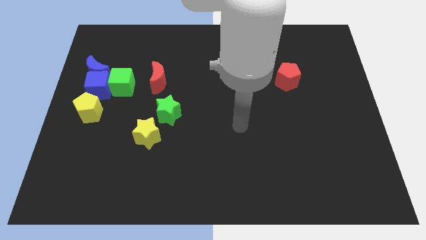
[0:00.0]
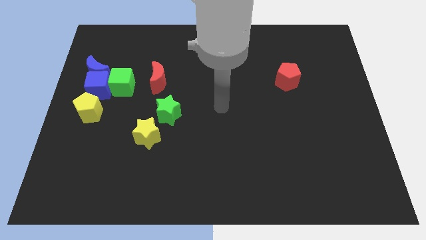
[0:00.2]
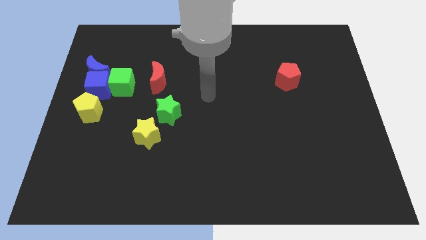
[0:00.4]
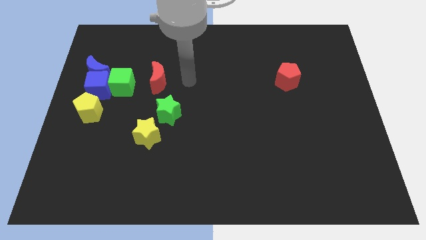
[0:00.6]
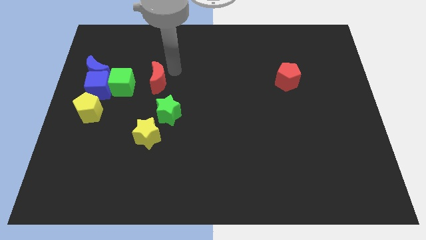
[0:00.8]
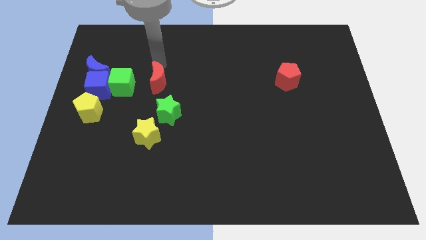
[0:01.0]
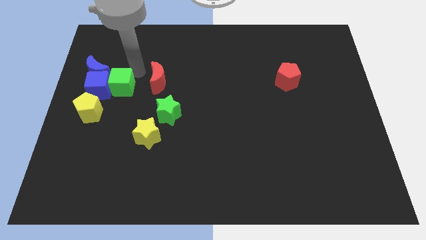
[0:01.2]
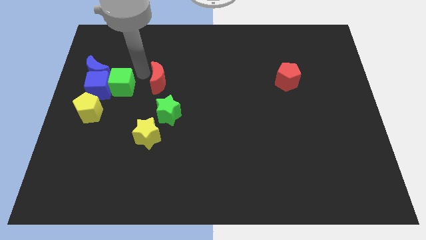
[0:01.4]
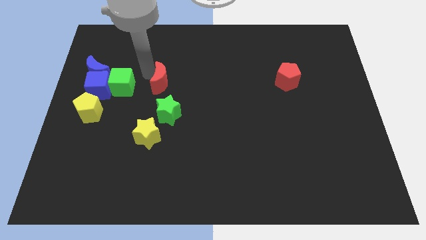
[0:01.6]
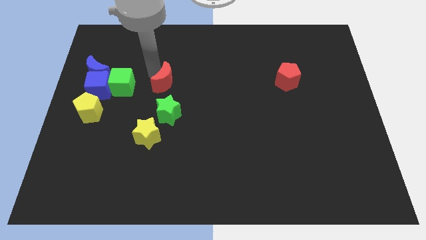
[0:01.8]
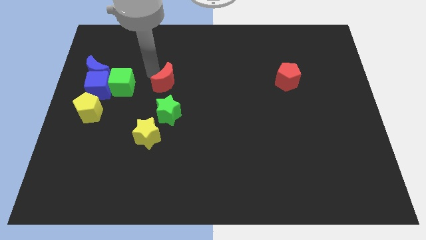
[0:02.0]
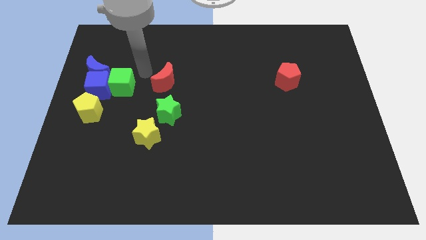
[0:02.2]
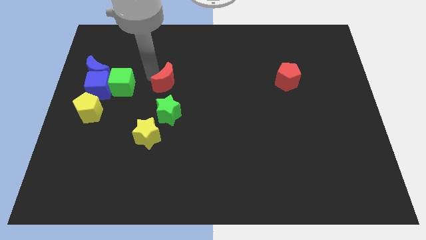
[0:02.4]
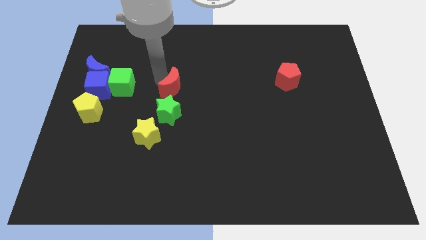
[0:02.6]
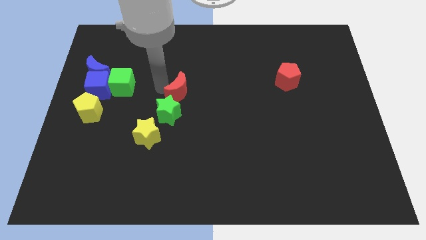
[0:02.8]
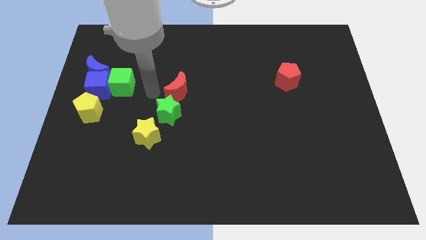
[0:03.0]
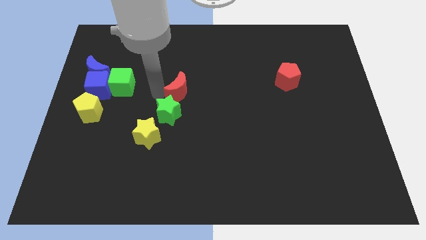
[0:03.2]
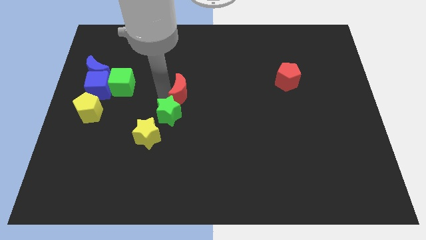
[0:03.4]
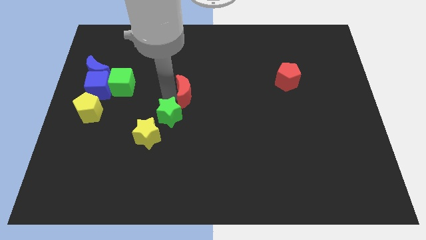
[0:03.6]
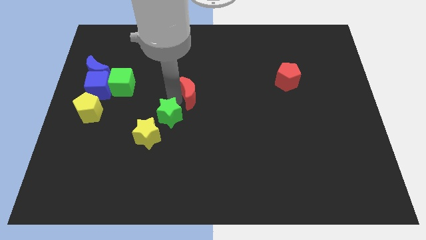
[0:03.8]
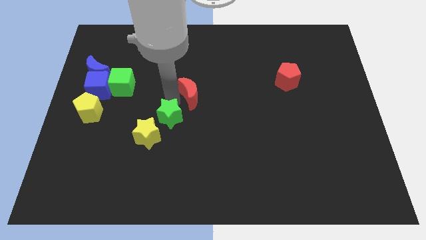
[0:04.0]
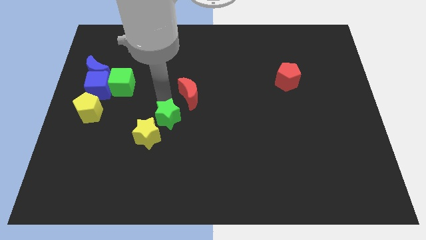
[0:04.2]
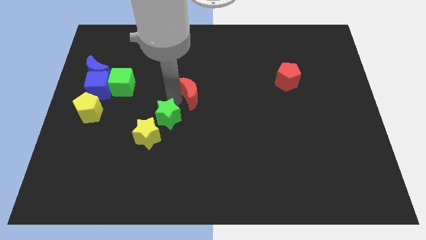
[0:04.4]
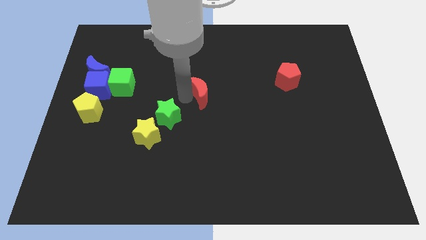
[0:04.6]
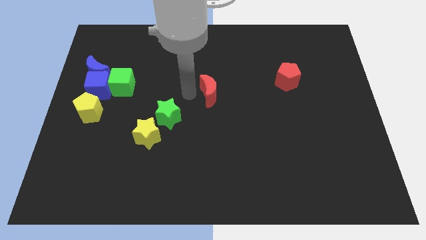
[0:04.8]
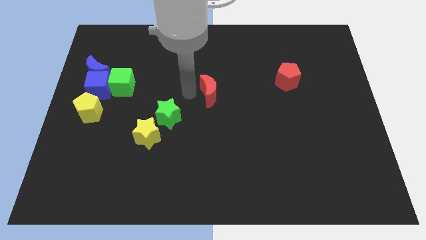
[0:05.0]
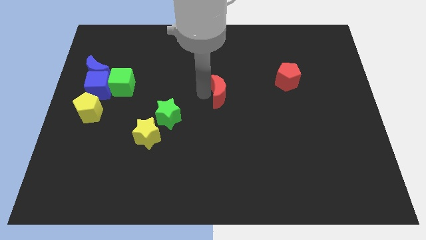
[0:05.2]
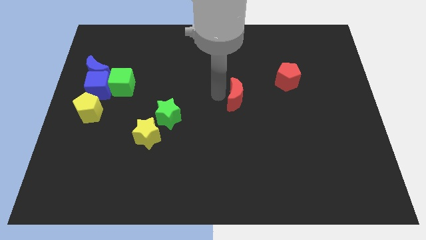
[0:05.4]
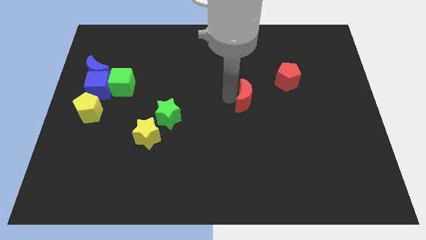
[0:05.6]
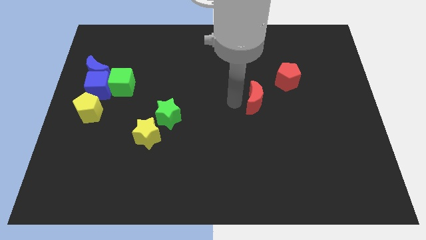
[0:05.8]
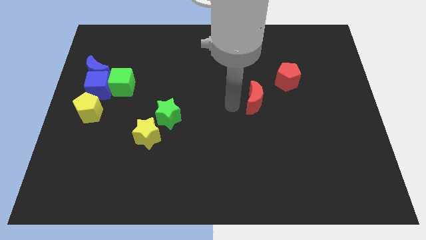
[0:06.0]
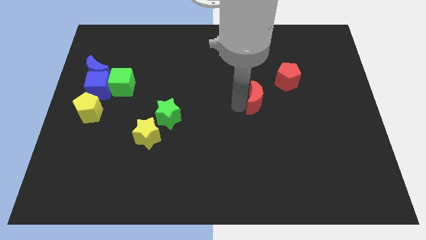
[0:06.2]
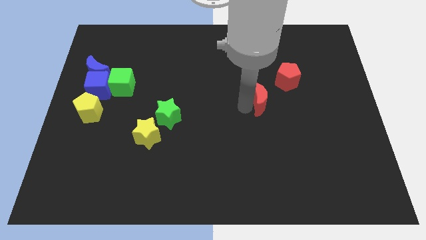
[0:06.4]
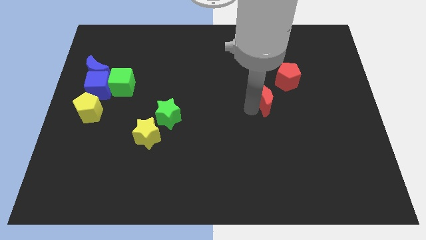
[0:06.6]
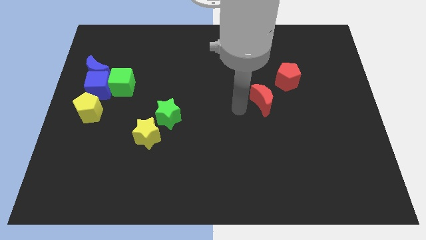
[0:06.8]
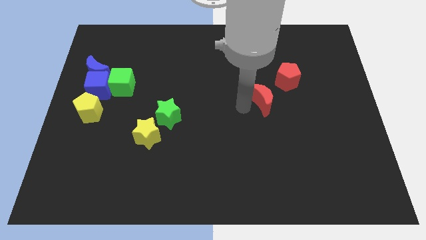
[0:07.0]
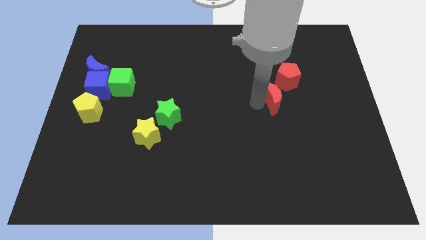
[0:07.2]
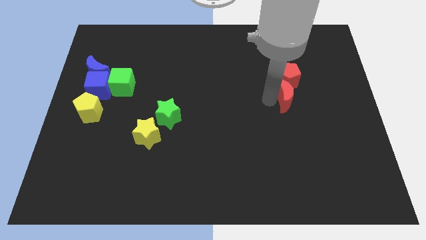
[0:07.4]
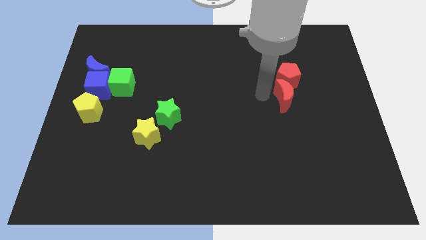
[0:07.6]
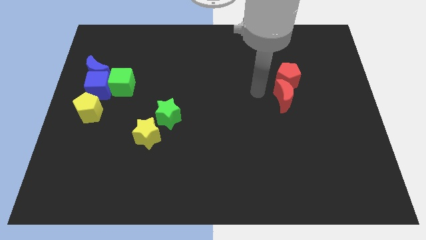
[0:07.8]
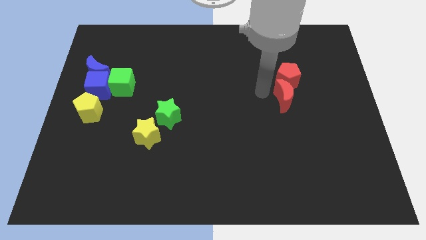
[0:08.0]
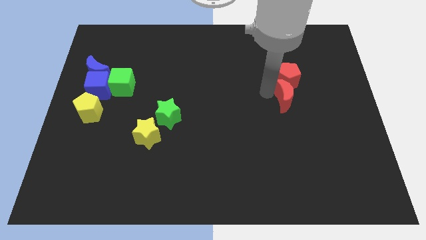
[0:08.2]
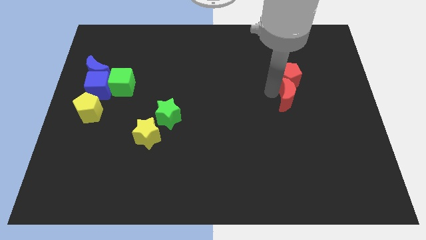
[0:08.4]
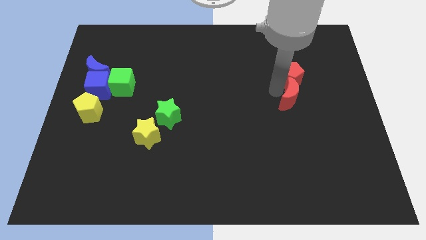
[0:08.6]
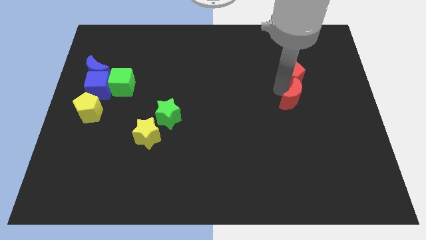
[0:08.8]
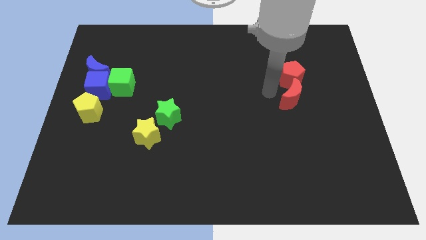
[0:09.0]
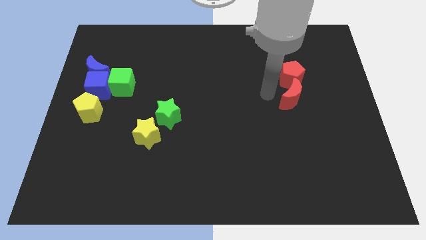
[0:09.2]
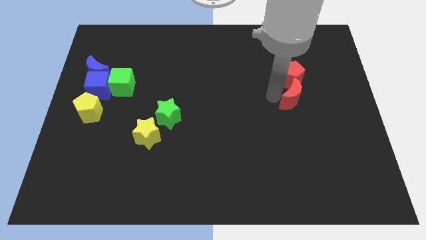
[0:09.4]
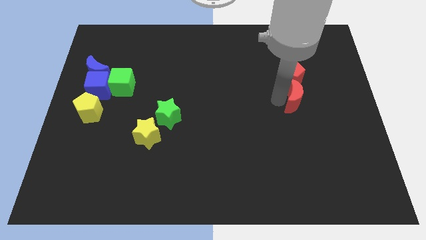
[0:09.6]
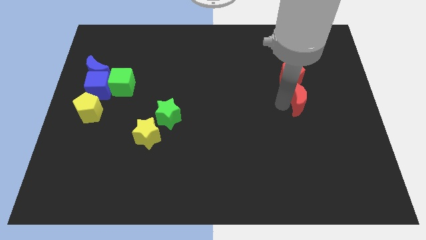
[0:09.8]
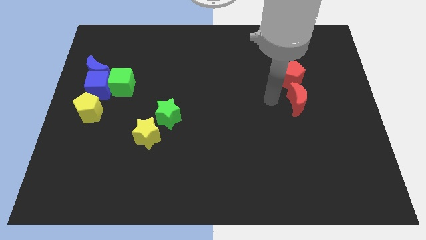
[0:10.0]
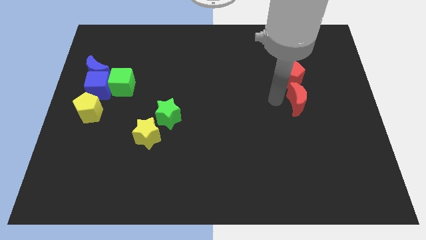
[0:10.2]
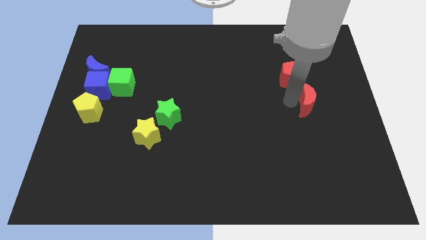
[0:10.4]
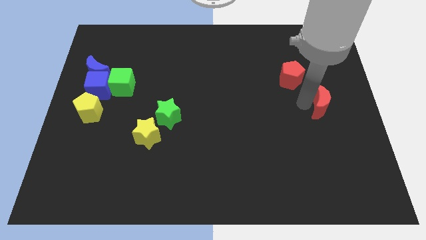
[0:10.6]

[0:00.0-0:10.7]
slide the red moon to the center right

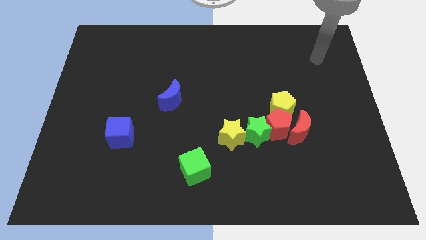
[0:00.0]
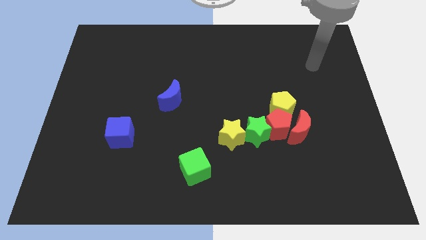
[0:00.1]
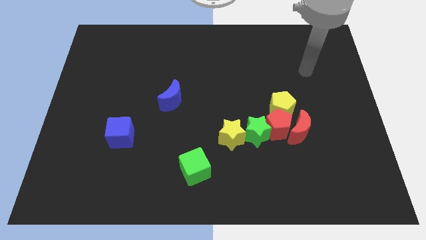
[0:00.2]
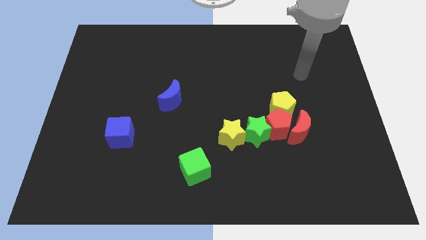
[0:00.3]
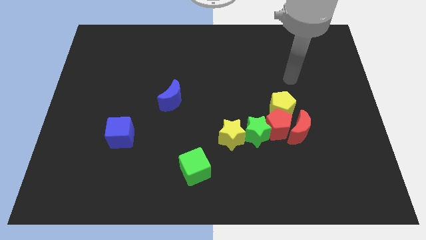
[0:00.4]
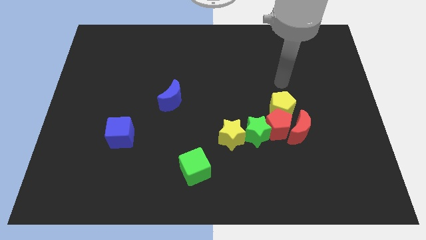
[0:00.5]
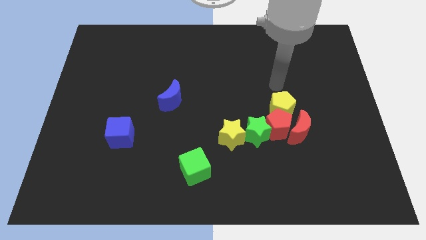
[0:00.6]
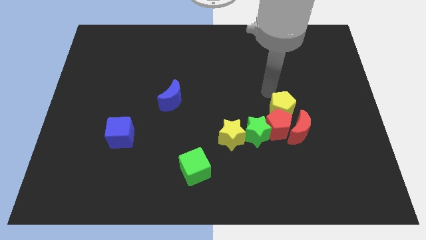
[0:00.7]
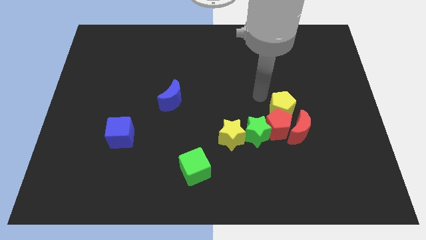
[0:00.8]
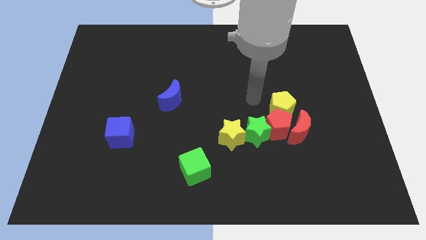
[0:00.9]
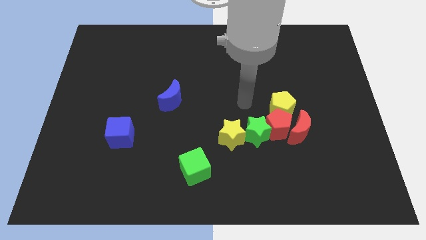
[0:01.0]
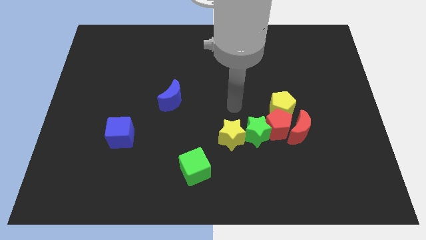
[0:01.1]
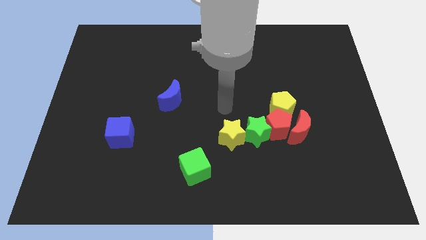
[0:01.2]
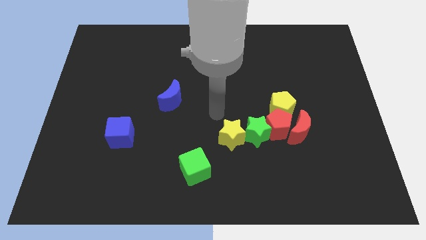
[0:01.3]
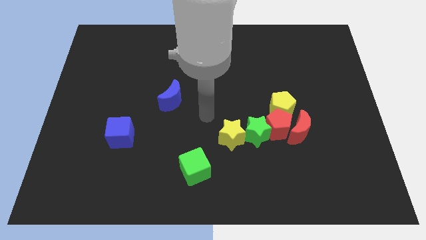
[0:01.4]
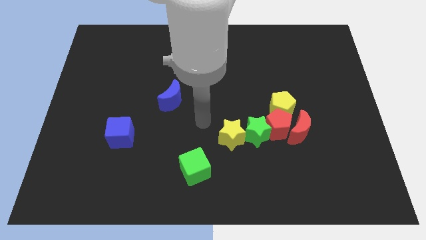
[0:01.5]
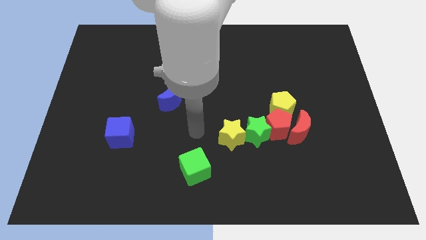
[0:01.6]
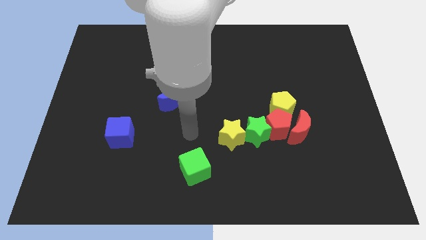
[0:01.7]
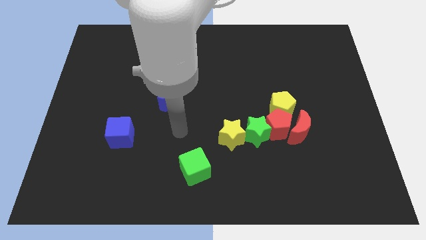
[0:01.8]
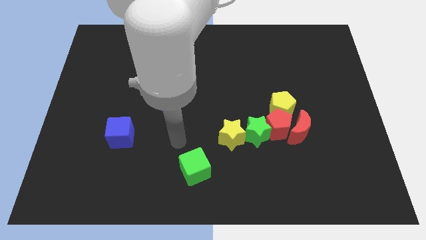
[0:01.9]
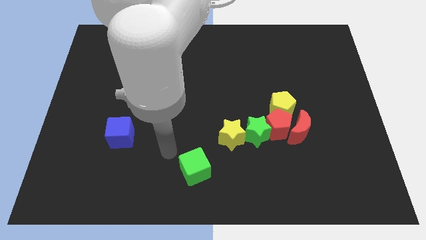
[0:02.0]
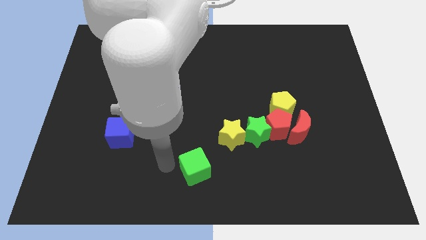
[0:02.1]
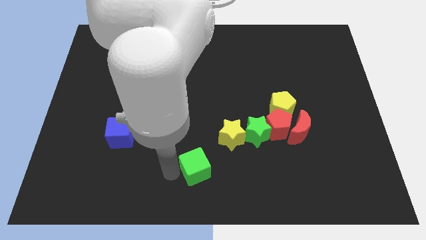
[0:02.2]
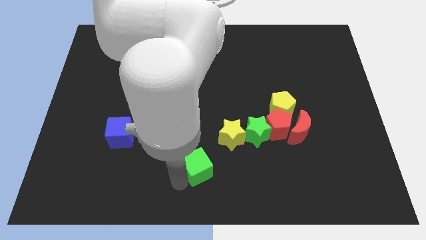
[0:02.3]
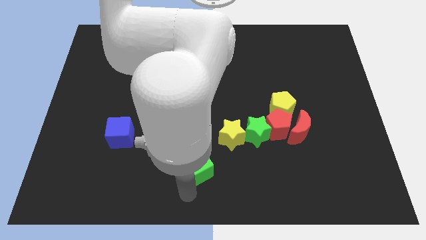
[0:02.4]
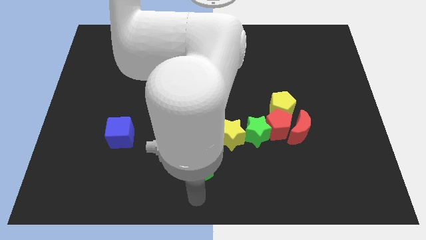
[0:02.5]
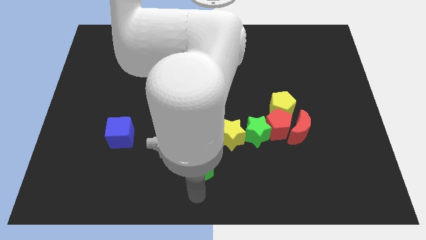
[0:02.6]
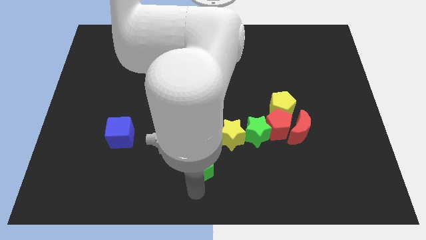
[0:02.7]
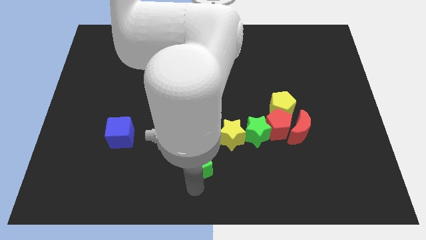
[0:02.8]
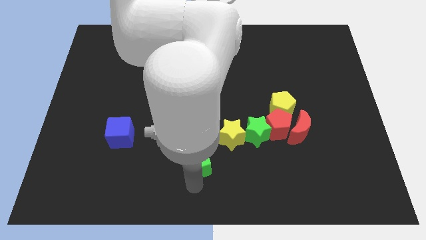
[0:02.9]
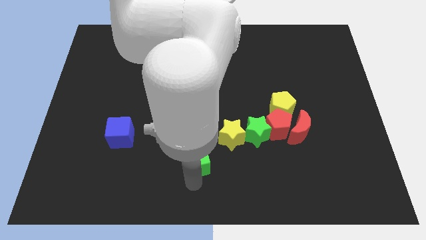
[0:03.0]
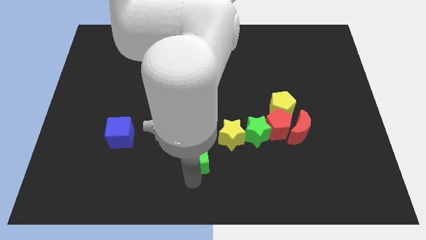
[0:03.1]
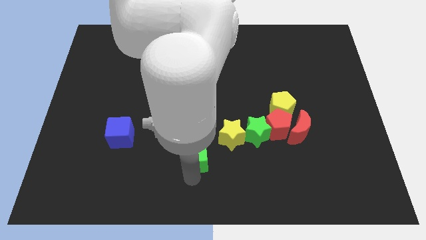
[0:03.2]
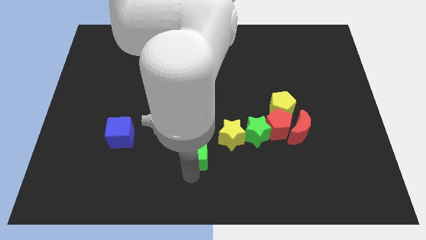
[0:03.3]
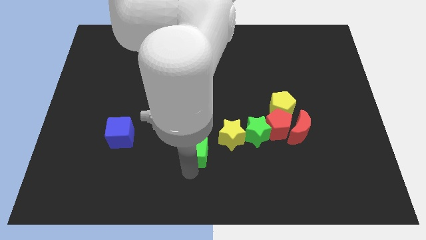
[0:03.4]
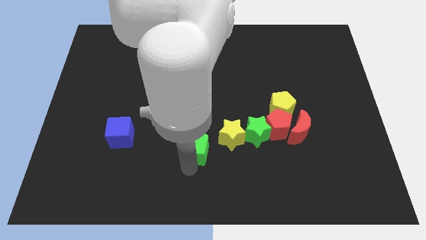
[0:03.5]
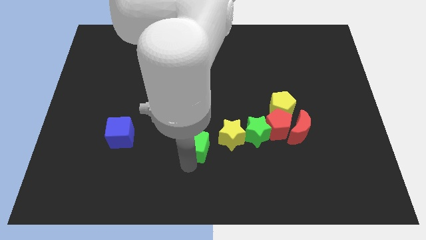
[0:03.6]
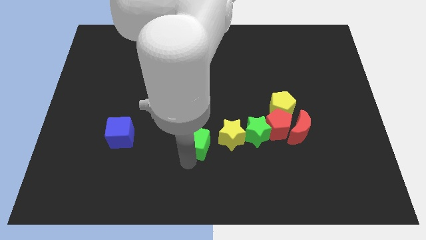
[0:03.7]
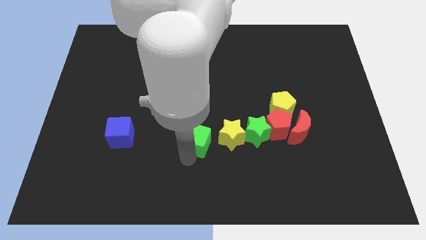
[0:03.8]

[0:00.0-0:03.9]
slide the green cube to the middle of the board
